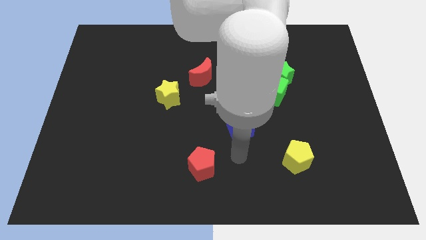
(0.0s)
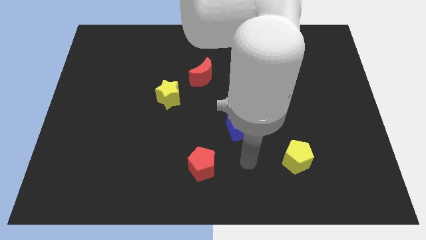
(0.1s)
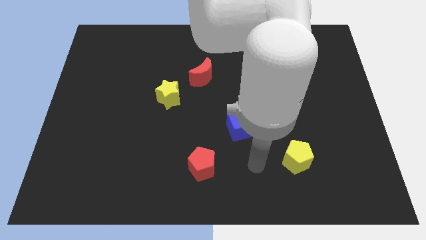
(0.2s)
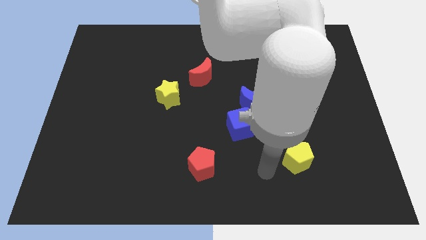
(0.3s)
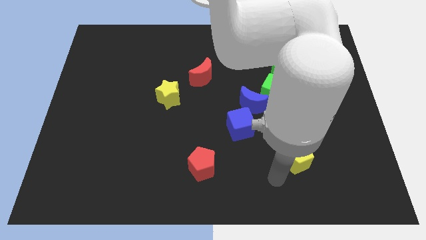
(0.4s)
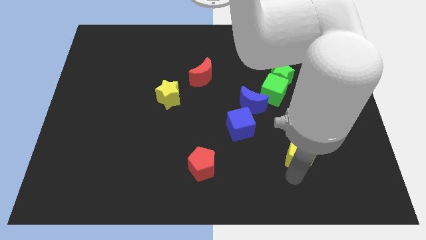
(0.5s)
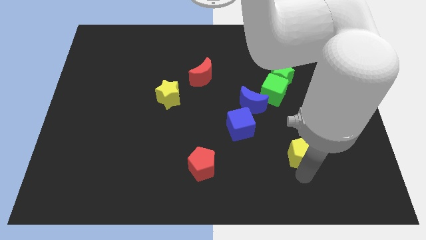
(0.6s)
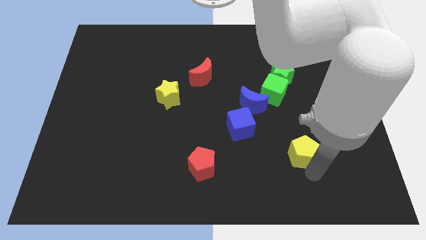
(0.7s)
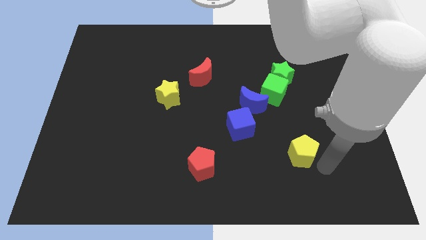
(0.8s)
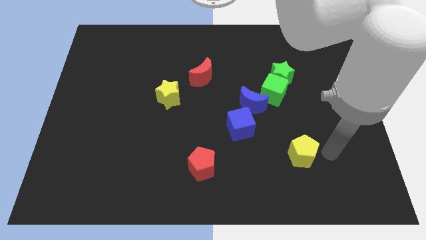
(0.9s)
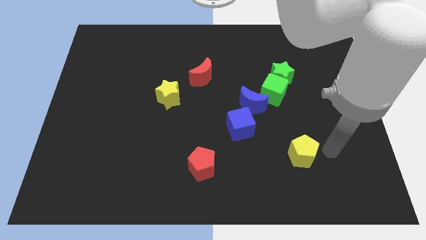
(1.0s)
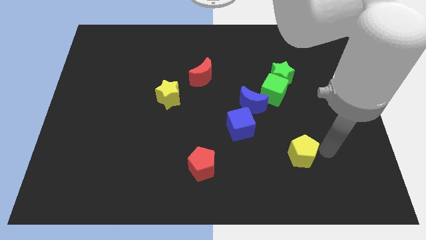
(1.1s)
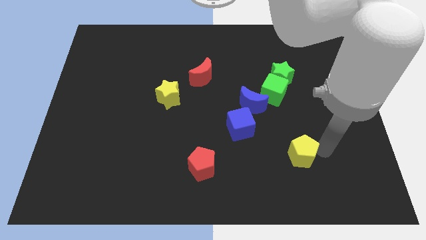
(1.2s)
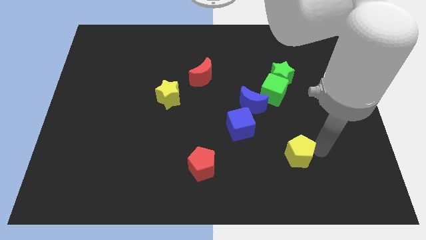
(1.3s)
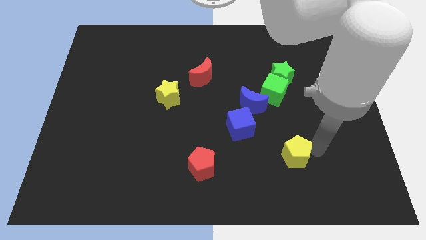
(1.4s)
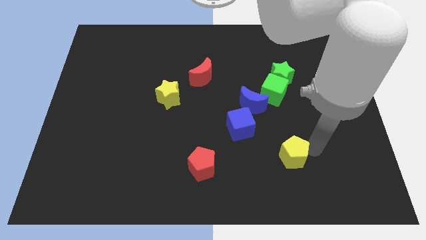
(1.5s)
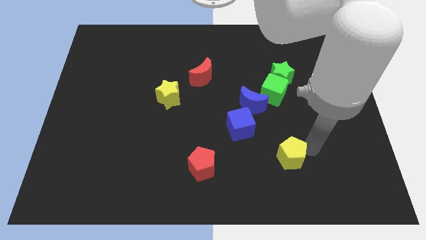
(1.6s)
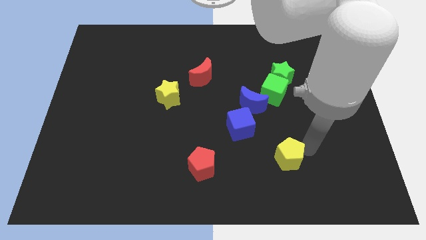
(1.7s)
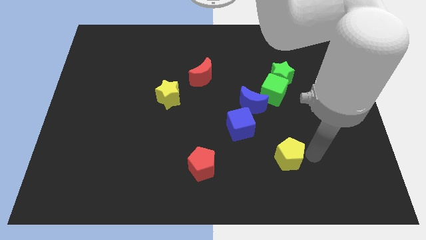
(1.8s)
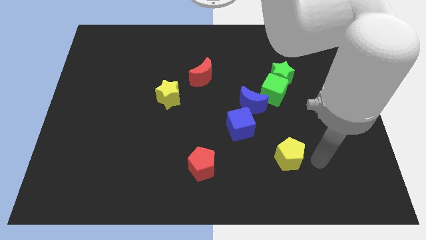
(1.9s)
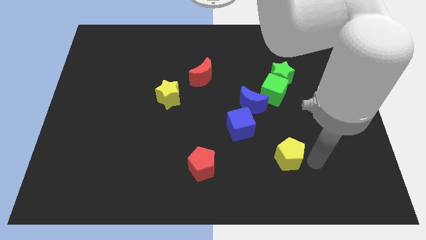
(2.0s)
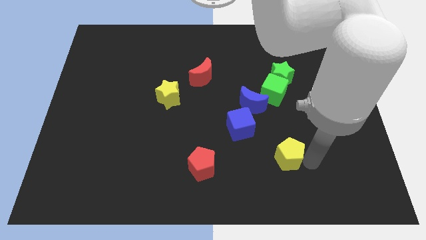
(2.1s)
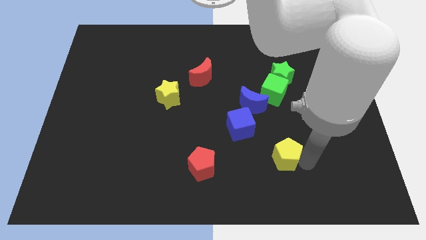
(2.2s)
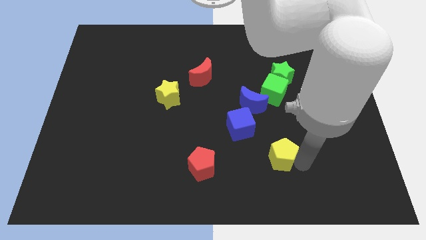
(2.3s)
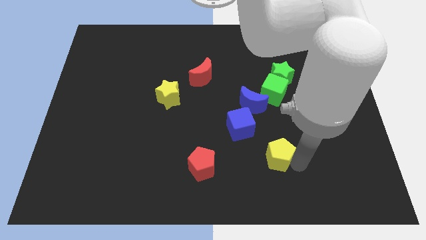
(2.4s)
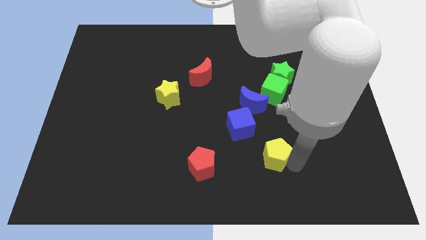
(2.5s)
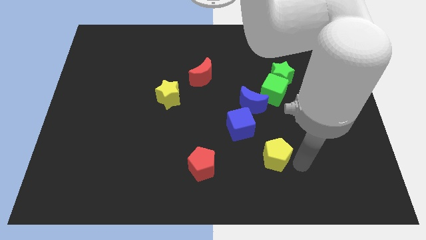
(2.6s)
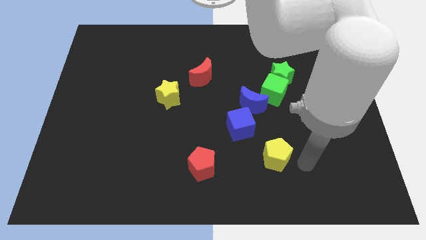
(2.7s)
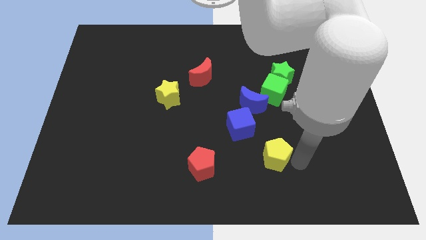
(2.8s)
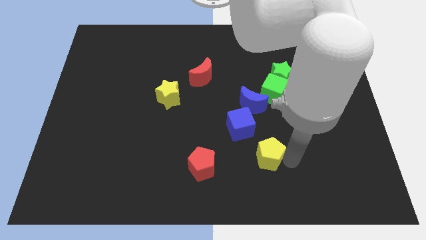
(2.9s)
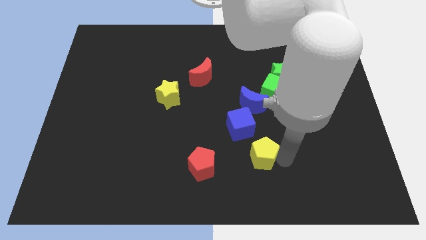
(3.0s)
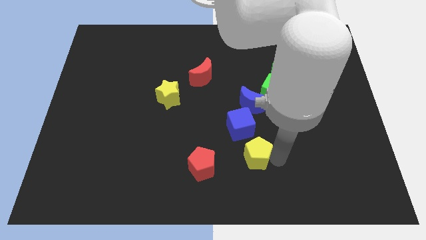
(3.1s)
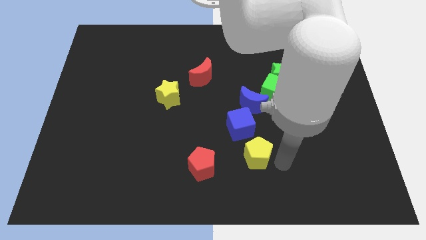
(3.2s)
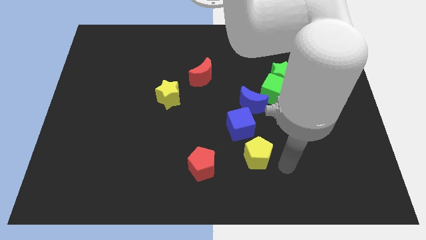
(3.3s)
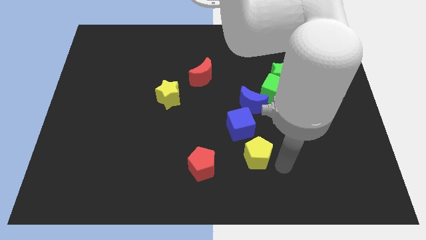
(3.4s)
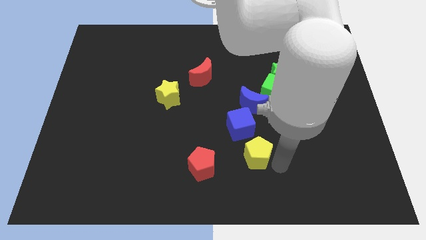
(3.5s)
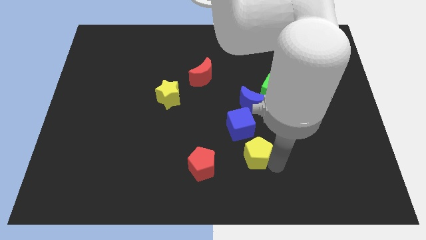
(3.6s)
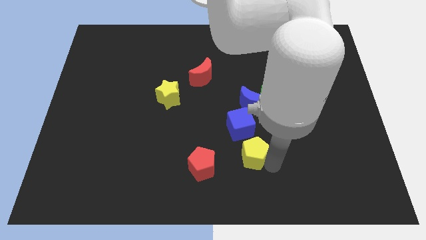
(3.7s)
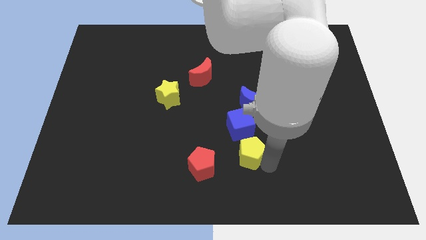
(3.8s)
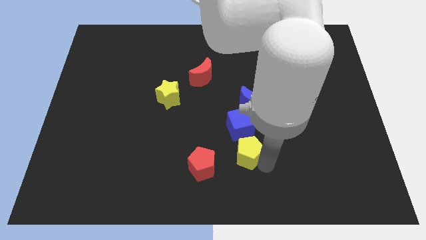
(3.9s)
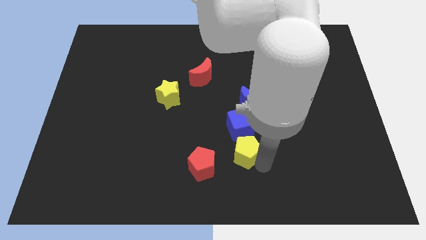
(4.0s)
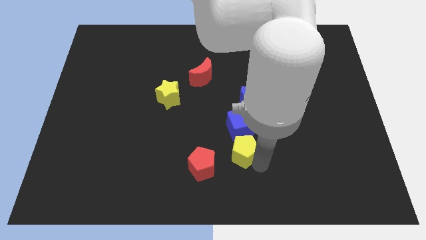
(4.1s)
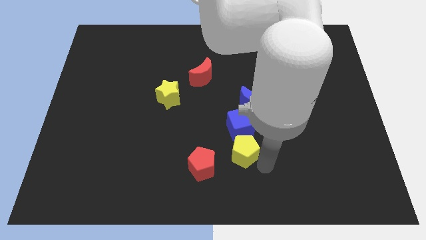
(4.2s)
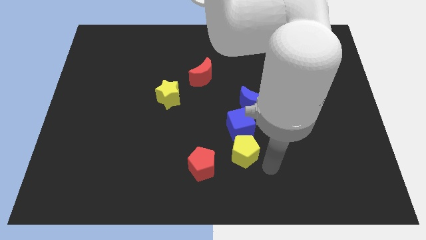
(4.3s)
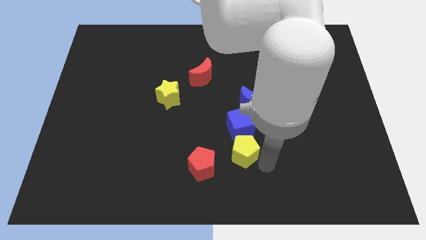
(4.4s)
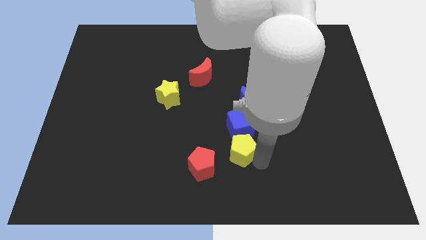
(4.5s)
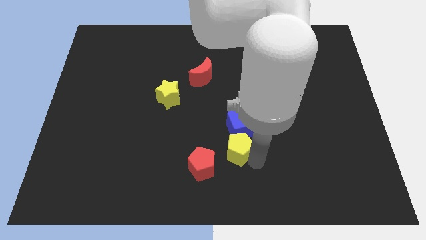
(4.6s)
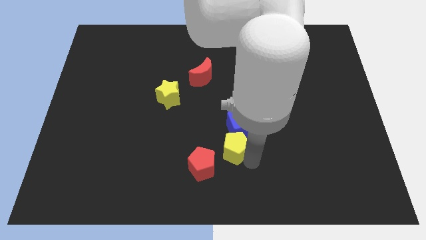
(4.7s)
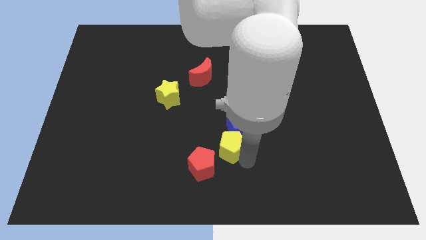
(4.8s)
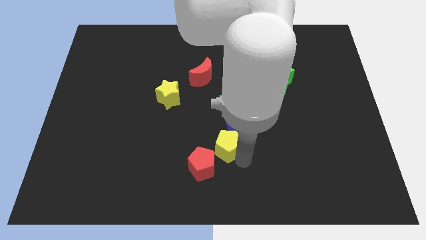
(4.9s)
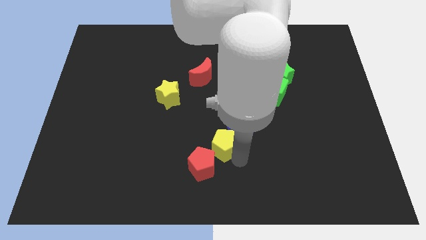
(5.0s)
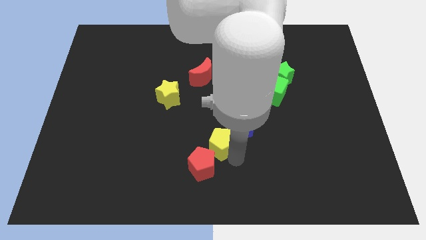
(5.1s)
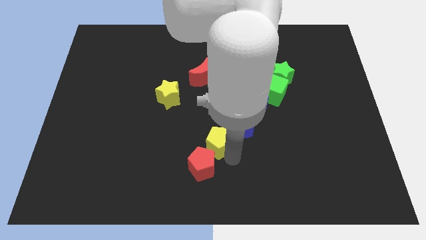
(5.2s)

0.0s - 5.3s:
move the yellow pentagon to the middle

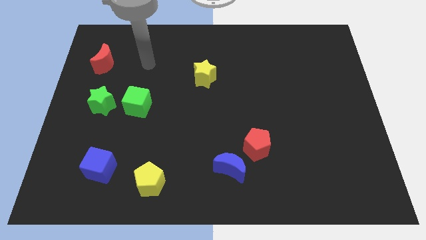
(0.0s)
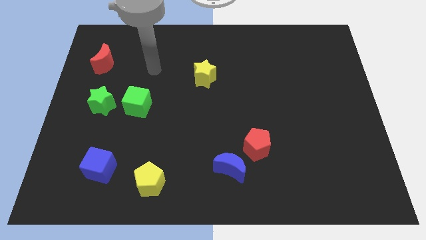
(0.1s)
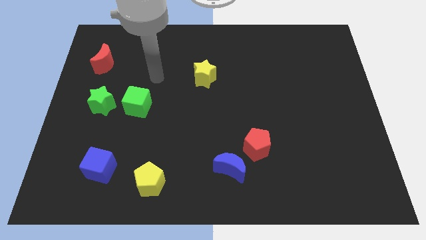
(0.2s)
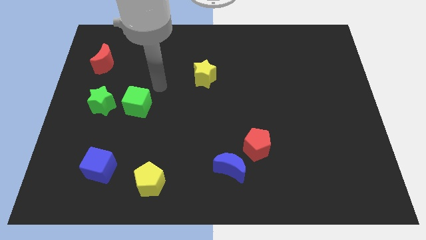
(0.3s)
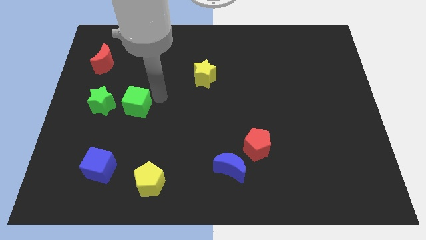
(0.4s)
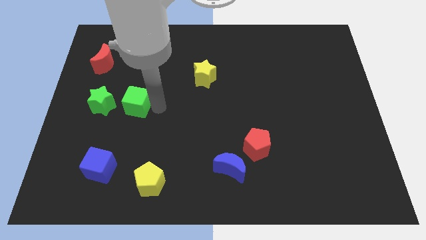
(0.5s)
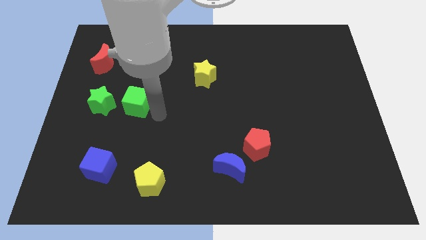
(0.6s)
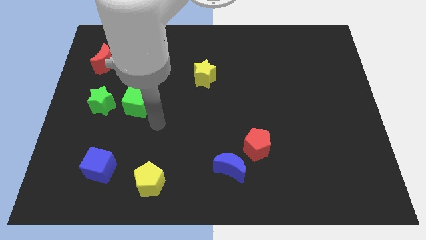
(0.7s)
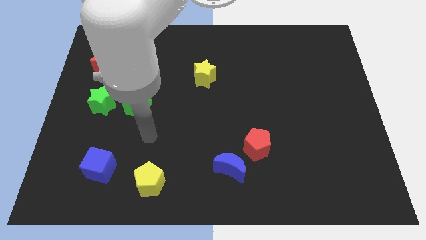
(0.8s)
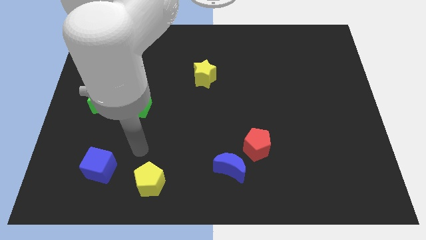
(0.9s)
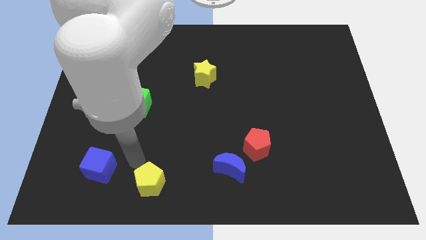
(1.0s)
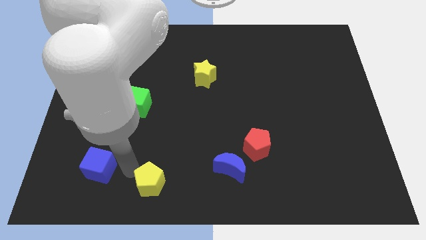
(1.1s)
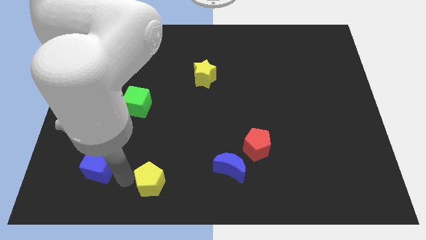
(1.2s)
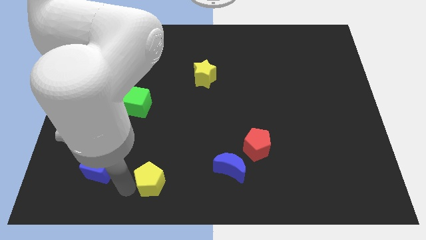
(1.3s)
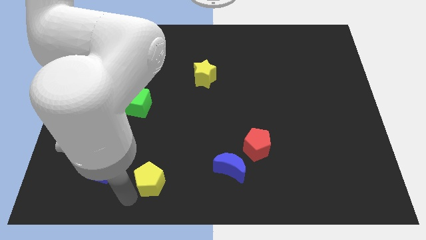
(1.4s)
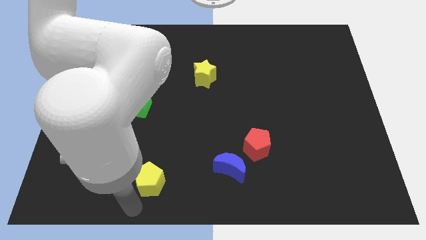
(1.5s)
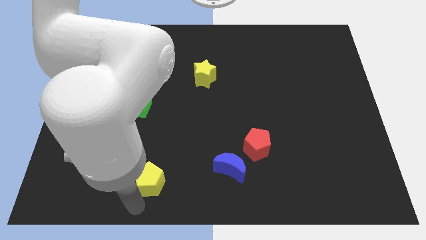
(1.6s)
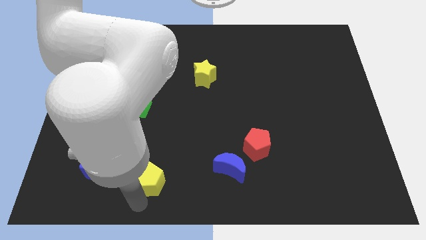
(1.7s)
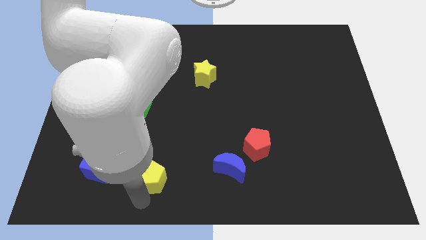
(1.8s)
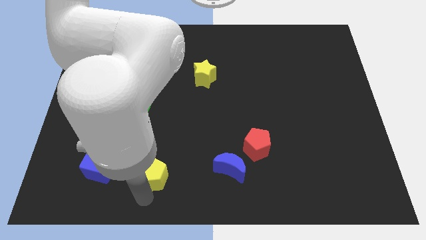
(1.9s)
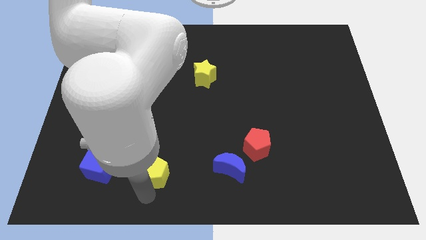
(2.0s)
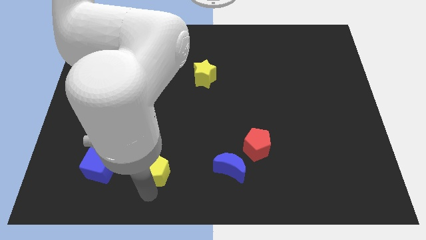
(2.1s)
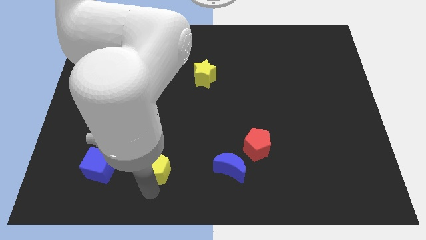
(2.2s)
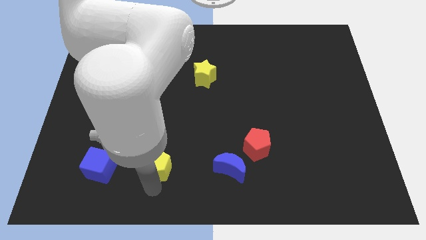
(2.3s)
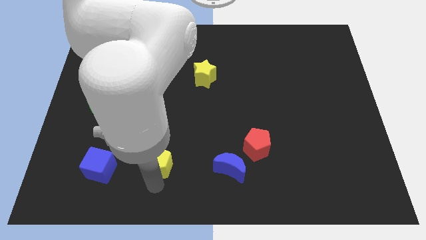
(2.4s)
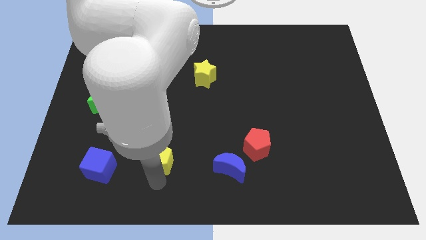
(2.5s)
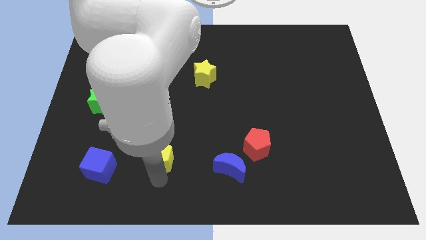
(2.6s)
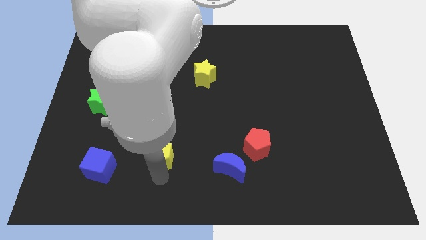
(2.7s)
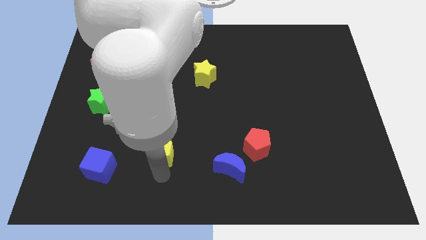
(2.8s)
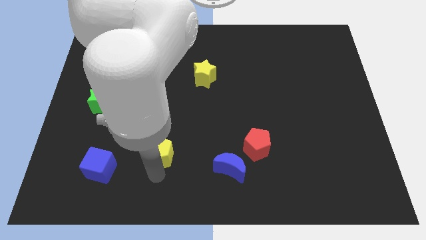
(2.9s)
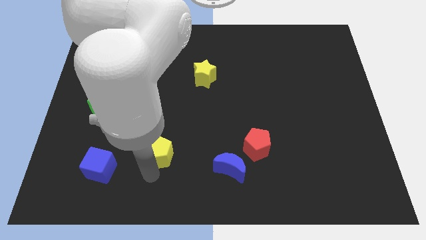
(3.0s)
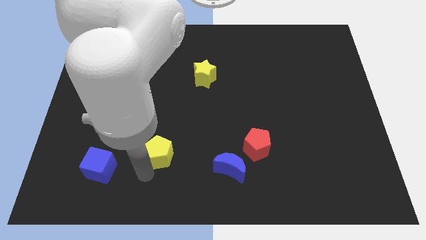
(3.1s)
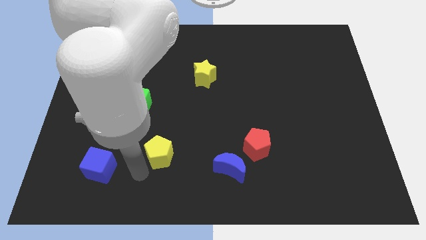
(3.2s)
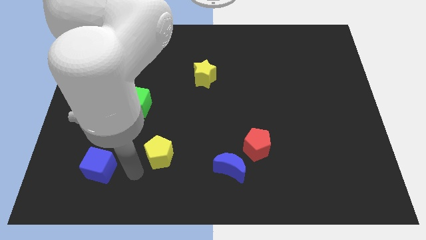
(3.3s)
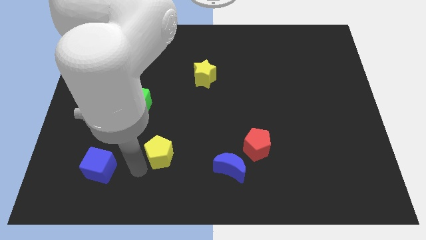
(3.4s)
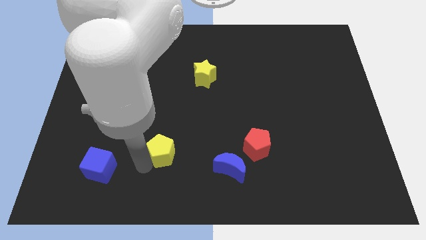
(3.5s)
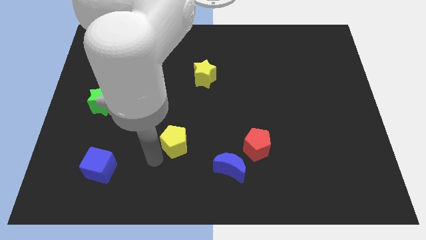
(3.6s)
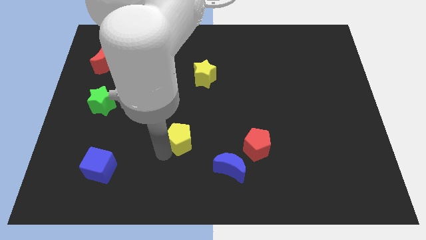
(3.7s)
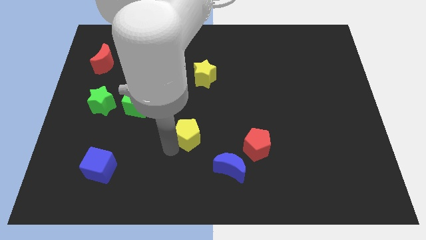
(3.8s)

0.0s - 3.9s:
push the yellow pentagon to the center of the board
